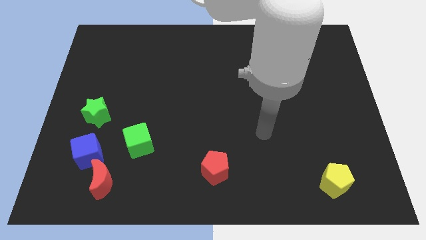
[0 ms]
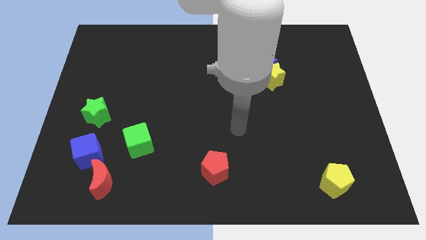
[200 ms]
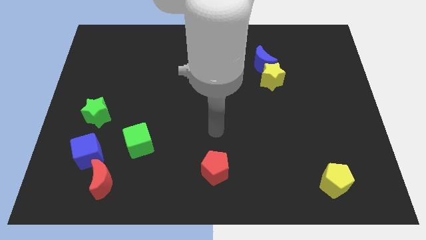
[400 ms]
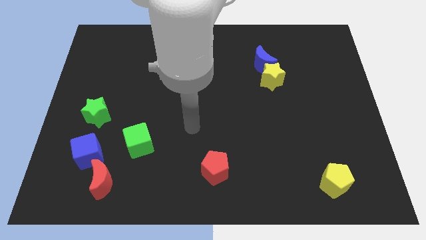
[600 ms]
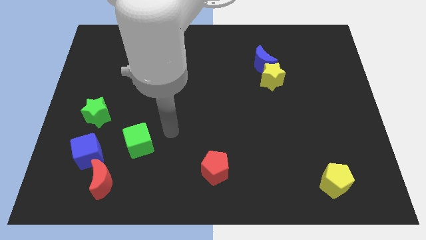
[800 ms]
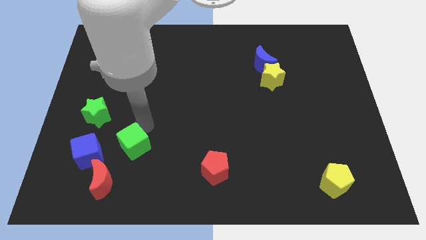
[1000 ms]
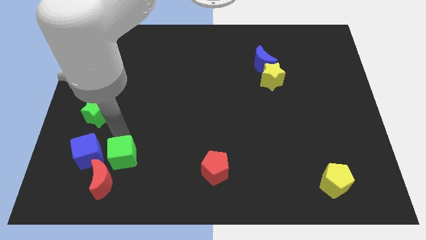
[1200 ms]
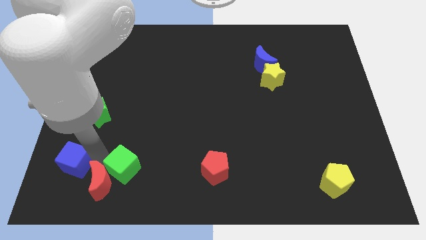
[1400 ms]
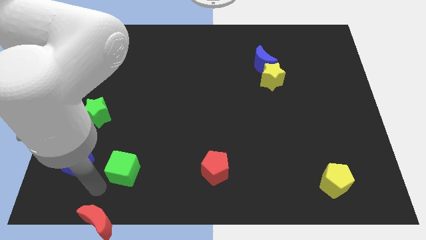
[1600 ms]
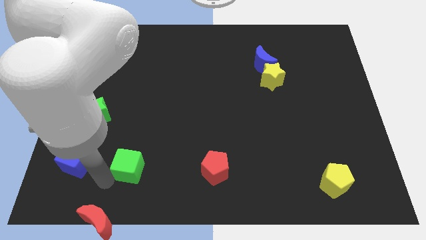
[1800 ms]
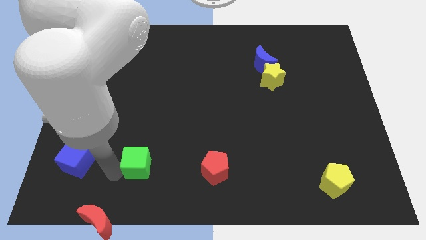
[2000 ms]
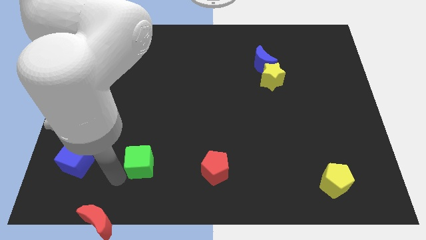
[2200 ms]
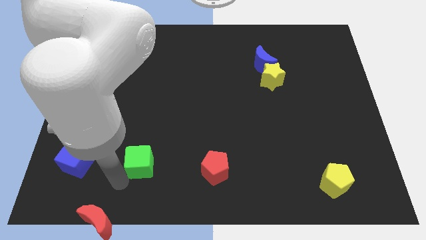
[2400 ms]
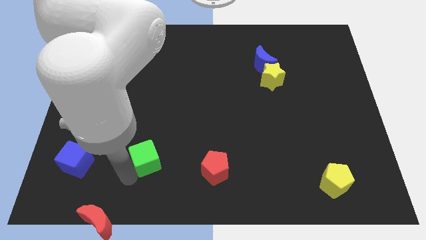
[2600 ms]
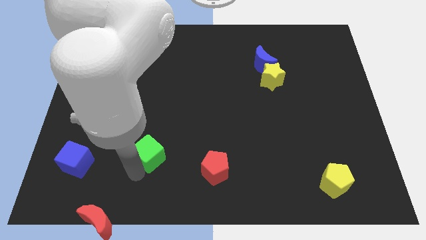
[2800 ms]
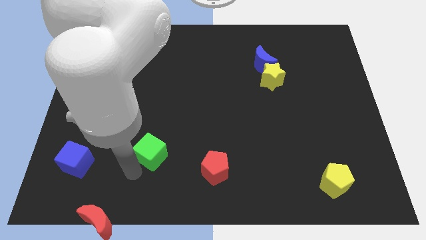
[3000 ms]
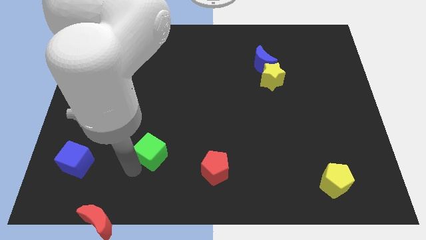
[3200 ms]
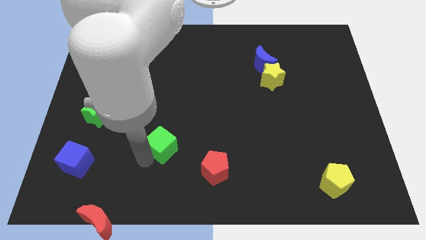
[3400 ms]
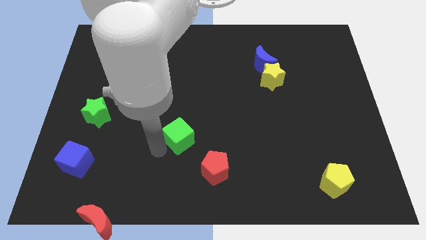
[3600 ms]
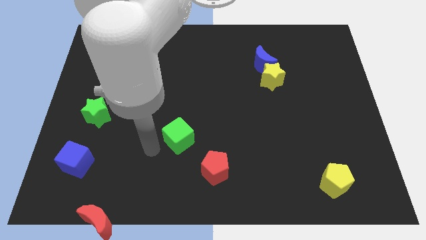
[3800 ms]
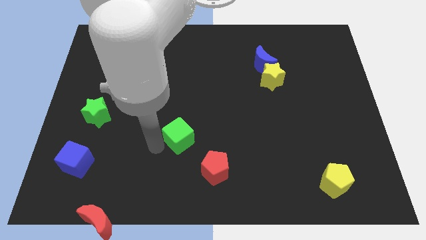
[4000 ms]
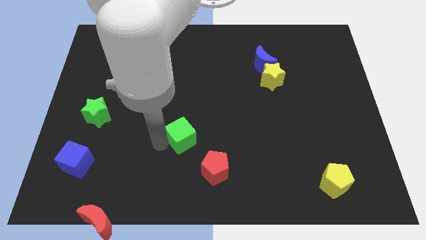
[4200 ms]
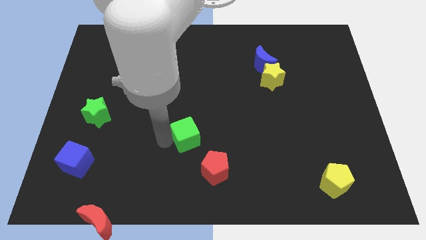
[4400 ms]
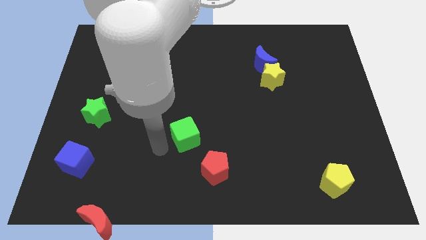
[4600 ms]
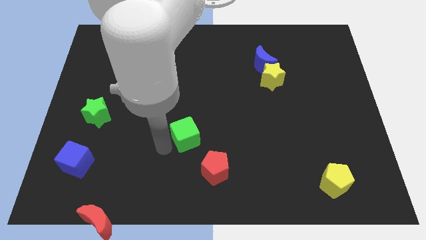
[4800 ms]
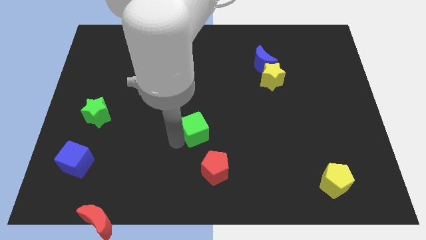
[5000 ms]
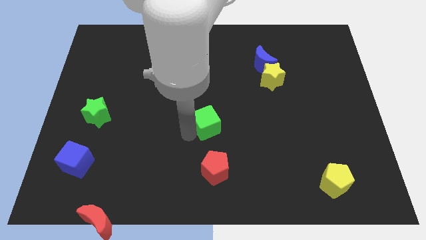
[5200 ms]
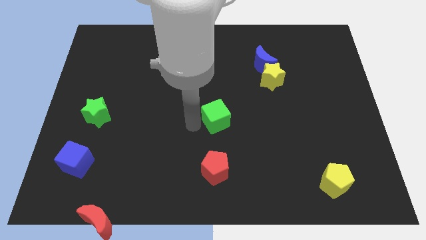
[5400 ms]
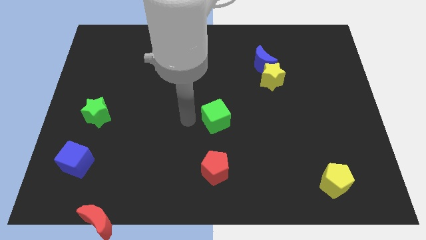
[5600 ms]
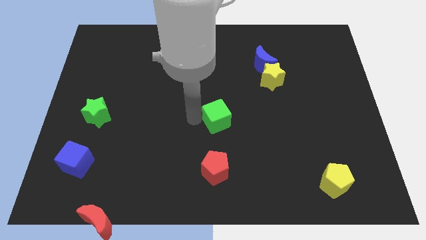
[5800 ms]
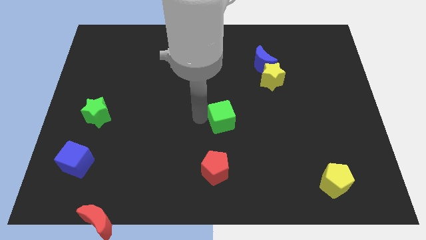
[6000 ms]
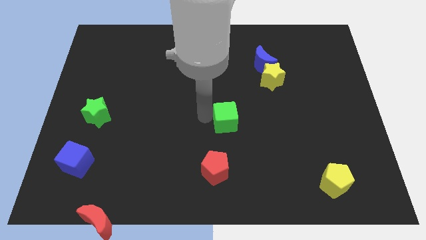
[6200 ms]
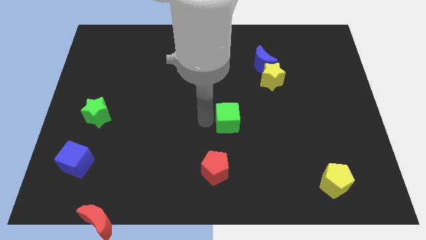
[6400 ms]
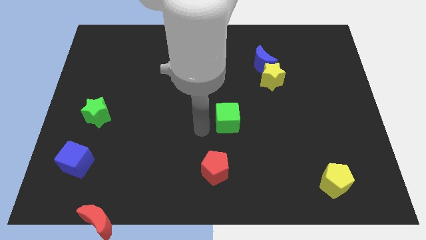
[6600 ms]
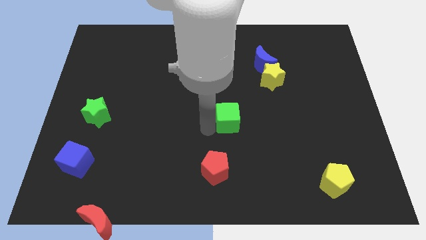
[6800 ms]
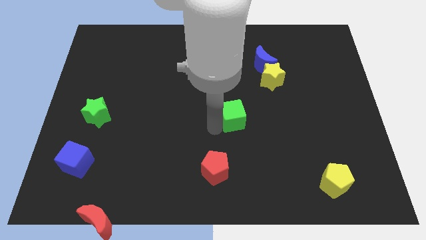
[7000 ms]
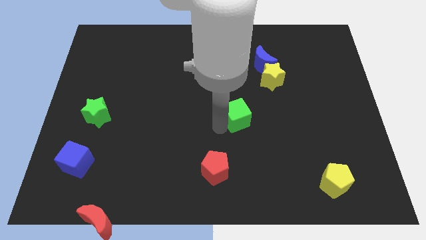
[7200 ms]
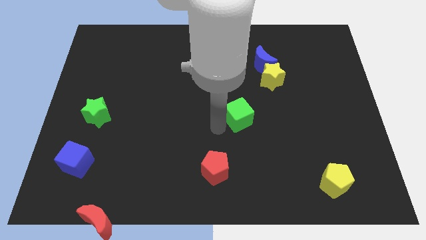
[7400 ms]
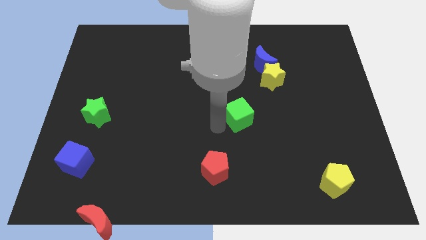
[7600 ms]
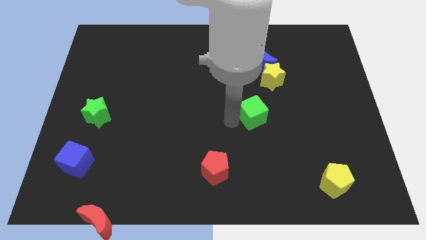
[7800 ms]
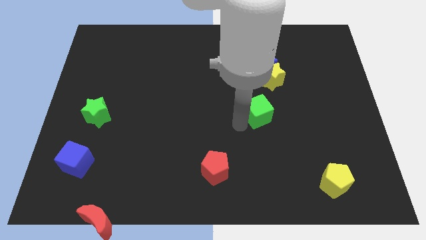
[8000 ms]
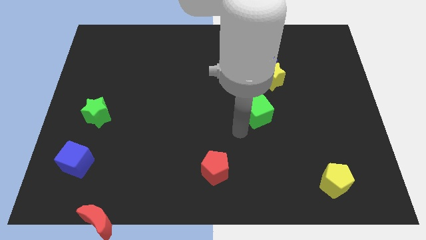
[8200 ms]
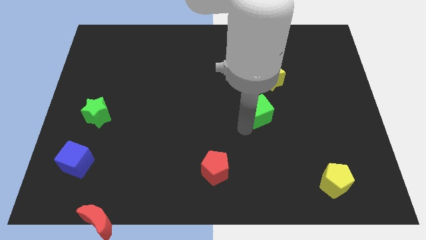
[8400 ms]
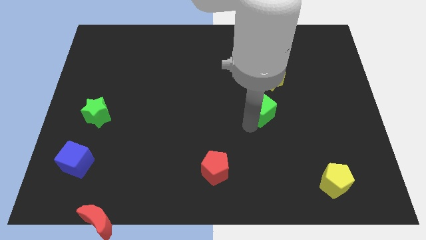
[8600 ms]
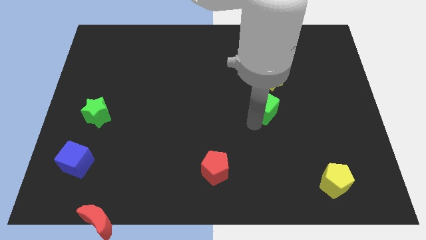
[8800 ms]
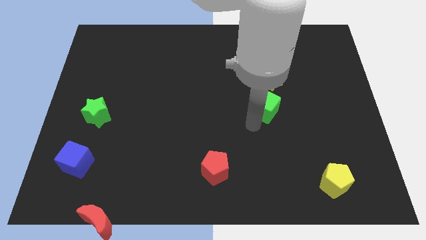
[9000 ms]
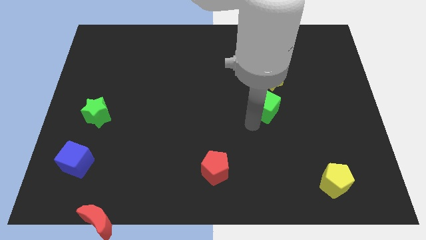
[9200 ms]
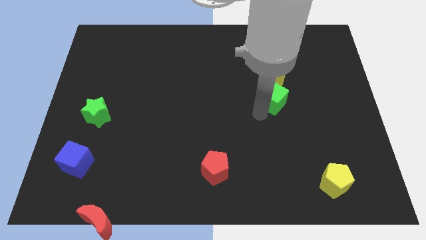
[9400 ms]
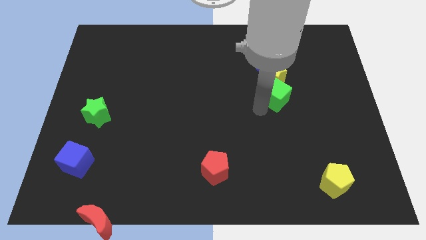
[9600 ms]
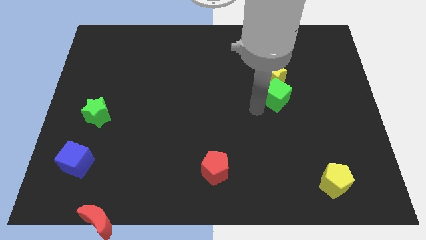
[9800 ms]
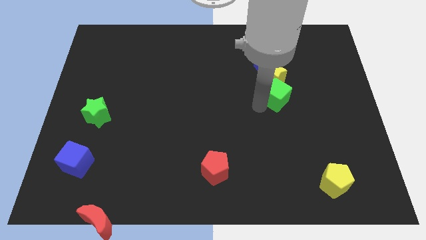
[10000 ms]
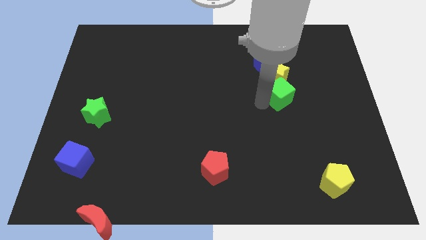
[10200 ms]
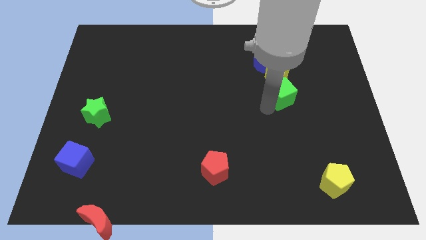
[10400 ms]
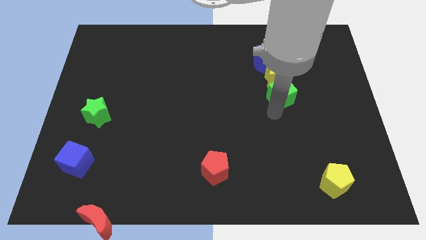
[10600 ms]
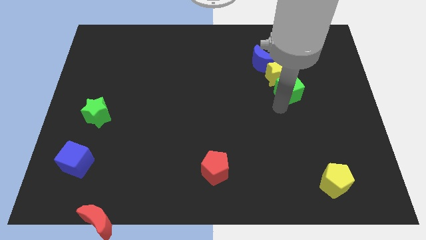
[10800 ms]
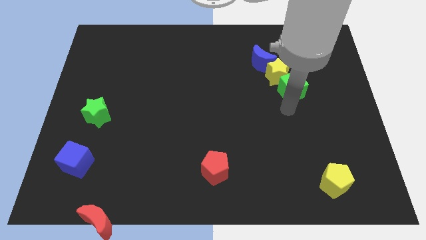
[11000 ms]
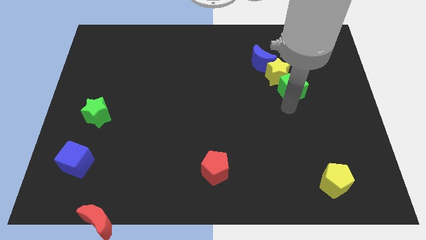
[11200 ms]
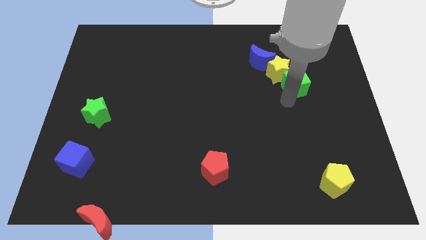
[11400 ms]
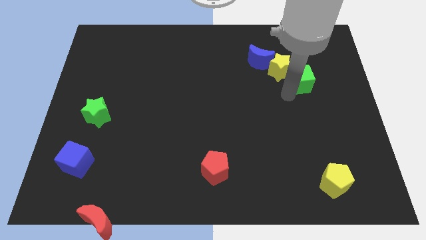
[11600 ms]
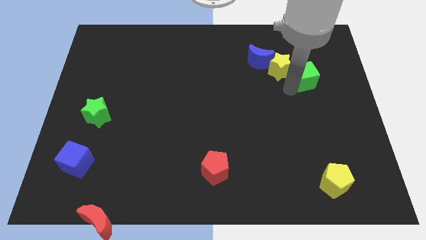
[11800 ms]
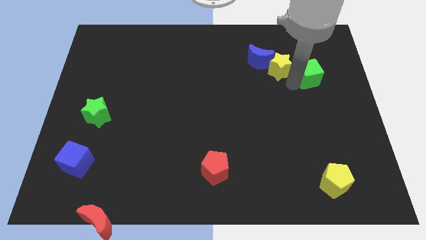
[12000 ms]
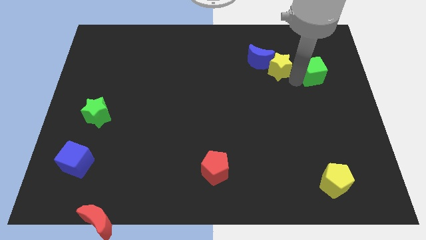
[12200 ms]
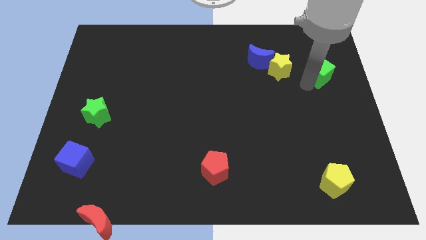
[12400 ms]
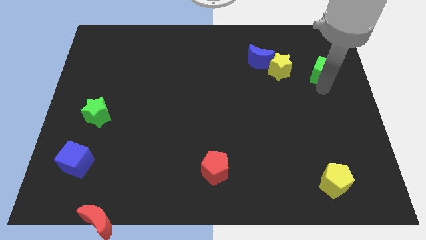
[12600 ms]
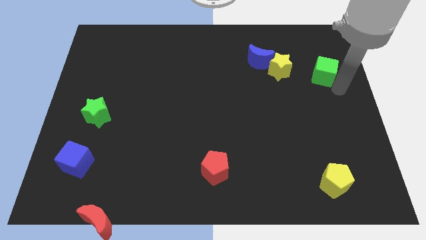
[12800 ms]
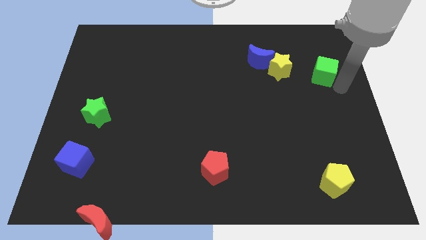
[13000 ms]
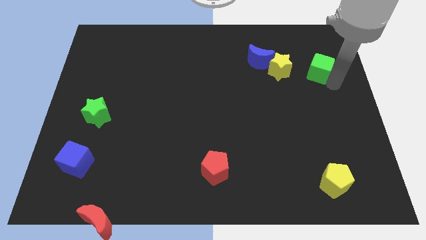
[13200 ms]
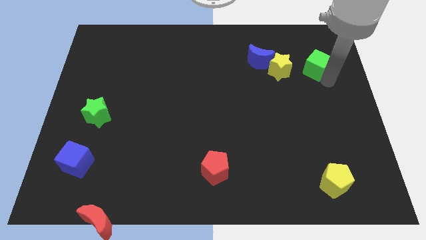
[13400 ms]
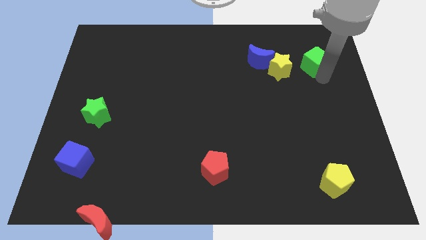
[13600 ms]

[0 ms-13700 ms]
slide the green cube to the top right side of the yellow star
